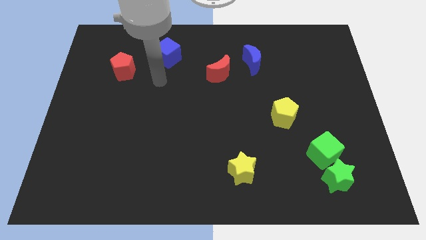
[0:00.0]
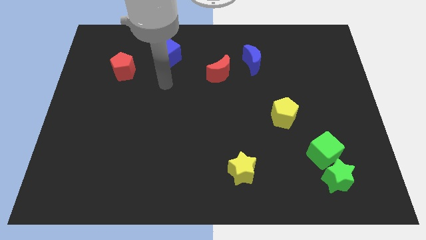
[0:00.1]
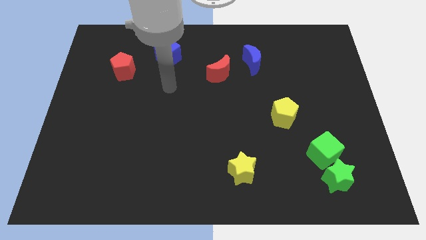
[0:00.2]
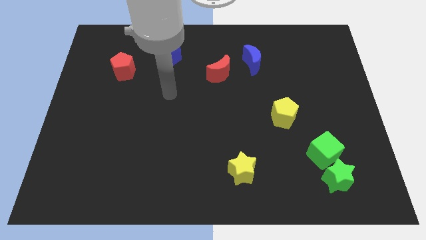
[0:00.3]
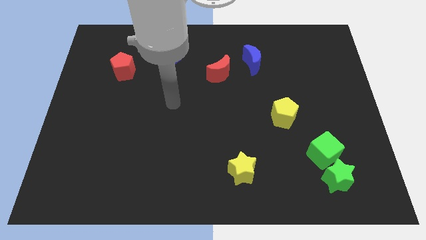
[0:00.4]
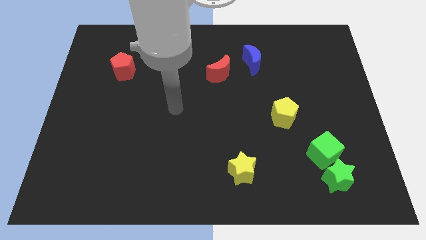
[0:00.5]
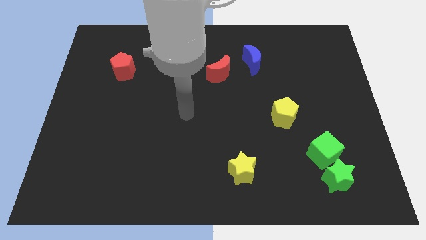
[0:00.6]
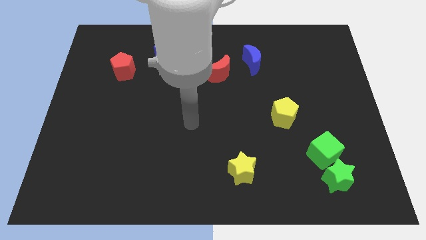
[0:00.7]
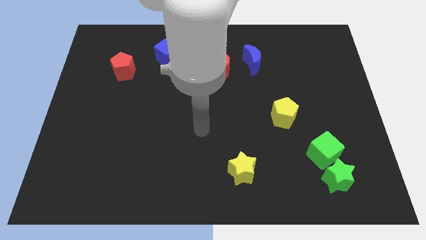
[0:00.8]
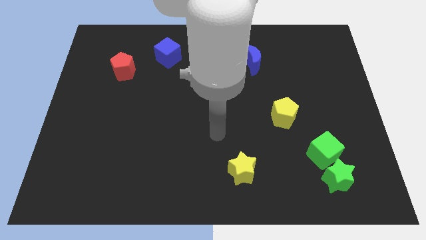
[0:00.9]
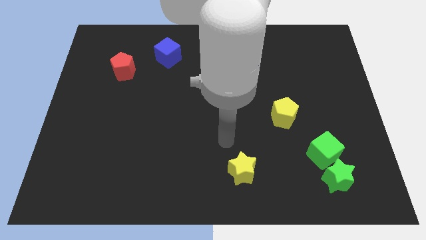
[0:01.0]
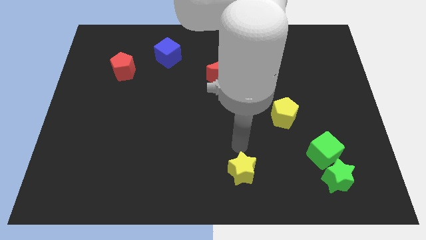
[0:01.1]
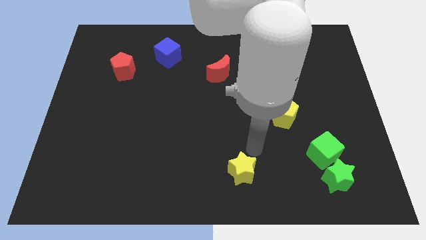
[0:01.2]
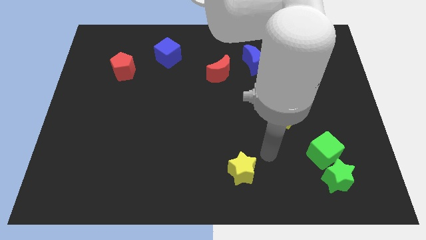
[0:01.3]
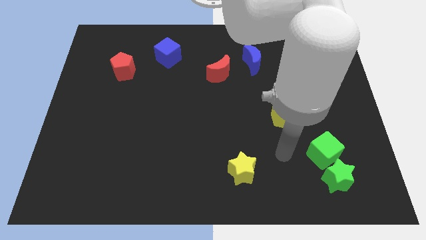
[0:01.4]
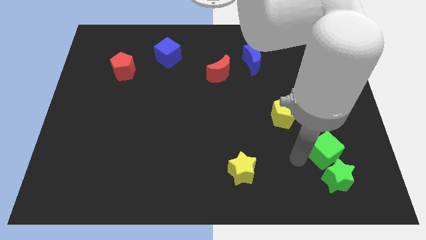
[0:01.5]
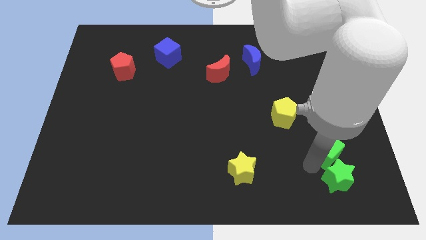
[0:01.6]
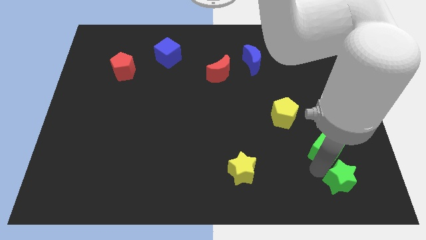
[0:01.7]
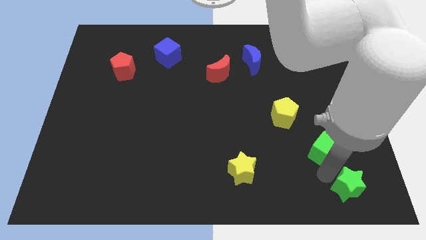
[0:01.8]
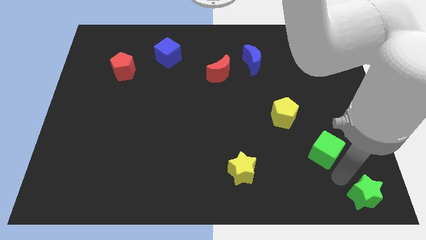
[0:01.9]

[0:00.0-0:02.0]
separate the green cube from the green star

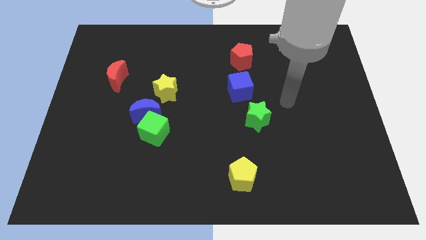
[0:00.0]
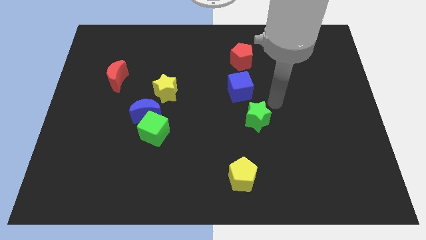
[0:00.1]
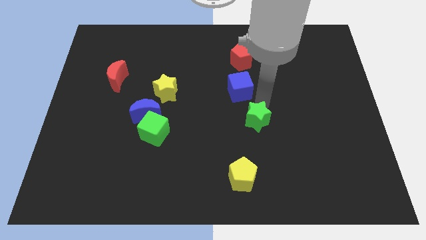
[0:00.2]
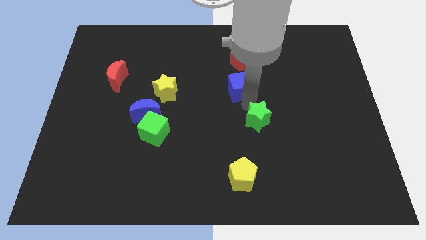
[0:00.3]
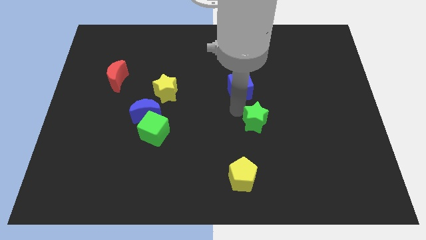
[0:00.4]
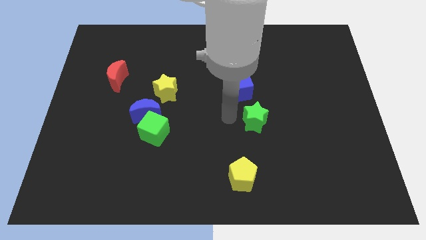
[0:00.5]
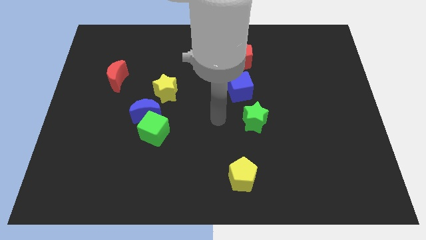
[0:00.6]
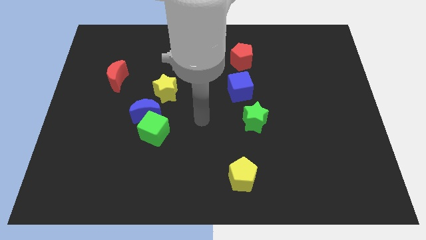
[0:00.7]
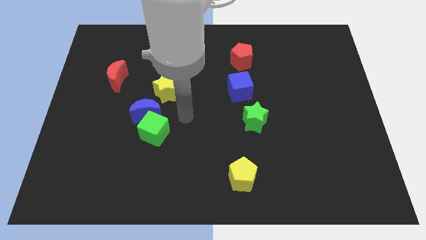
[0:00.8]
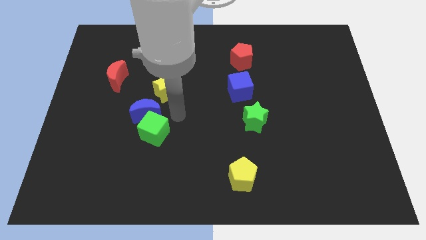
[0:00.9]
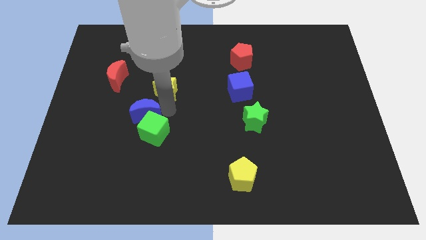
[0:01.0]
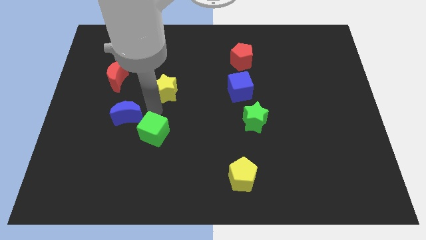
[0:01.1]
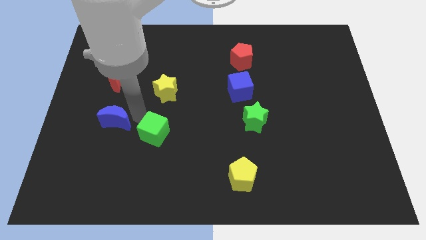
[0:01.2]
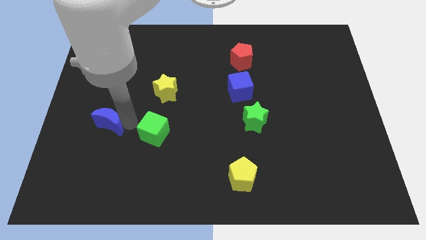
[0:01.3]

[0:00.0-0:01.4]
separate the green cube from the blue moon

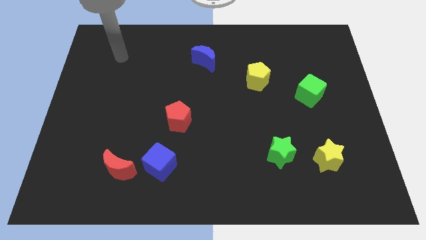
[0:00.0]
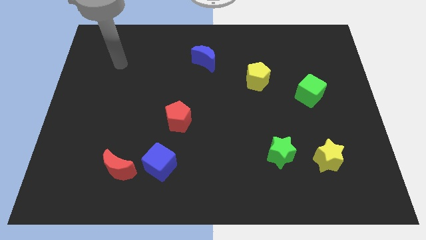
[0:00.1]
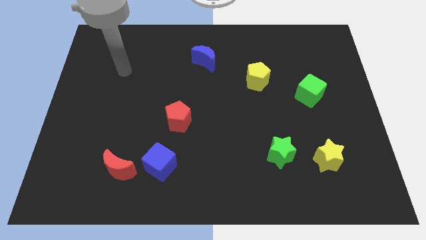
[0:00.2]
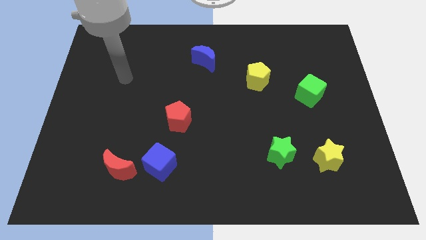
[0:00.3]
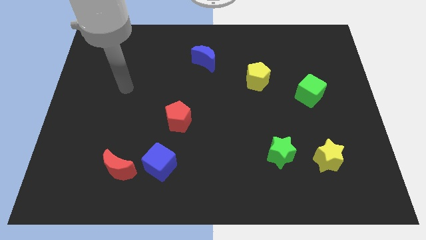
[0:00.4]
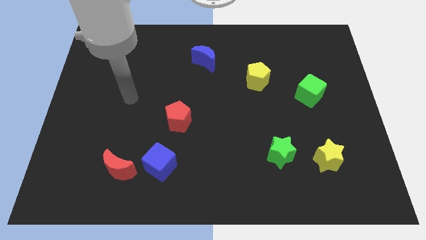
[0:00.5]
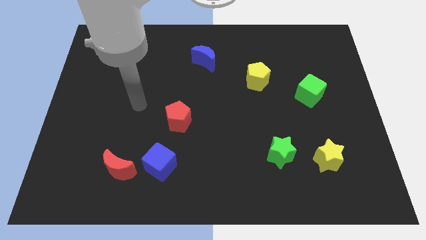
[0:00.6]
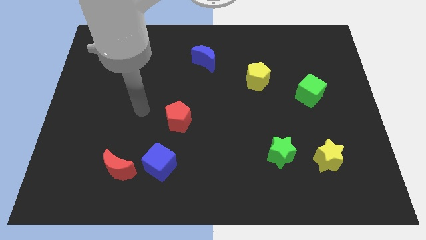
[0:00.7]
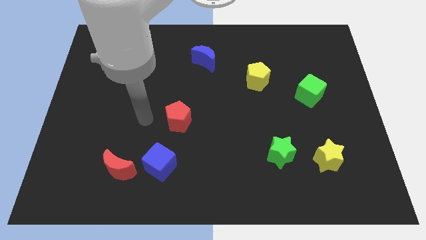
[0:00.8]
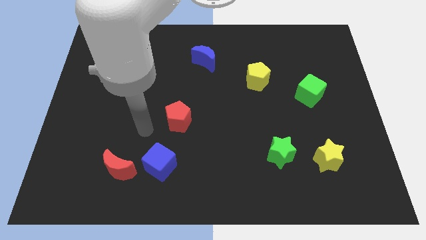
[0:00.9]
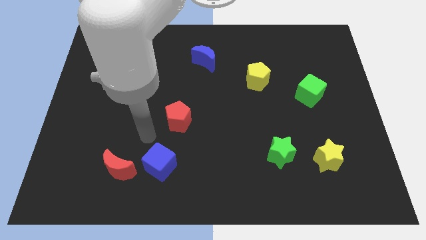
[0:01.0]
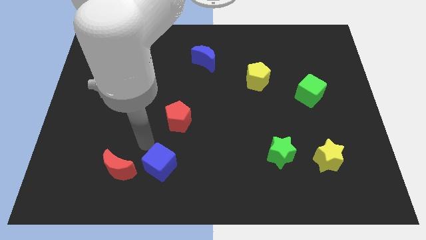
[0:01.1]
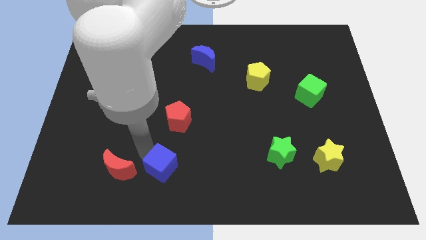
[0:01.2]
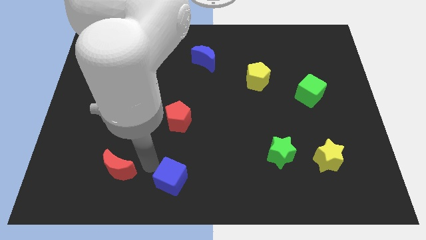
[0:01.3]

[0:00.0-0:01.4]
separate the red moon from the blue cube

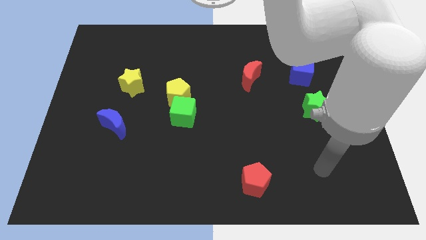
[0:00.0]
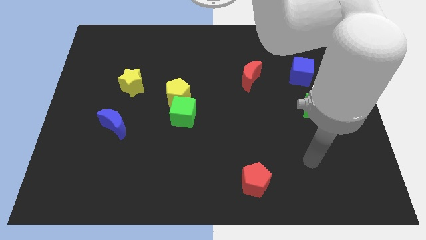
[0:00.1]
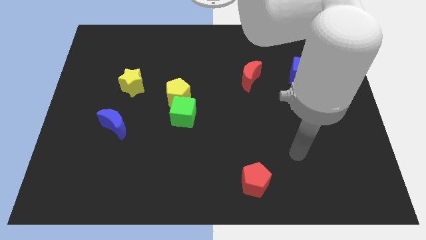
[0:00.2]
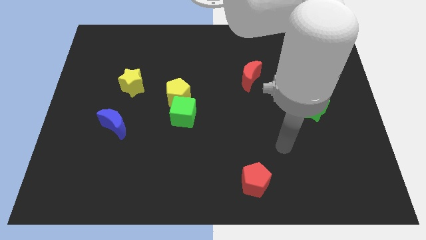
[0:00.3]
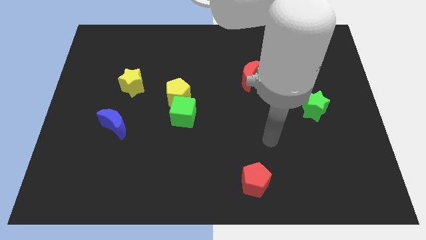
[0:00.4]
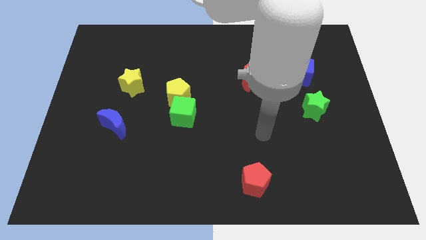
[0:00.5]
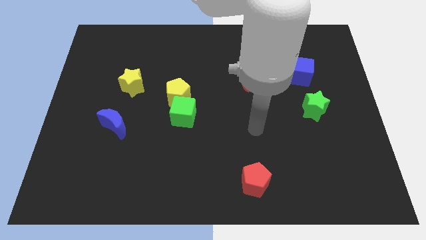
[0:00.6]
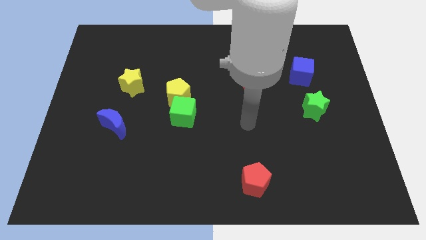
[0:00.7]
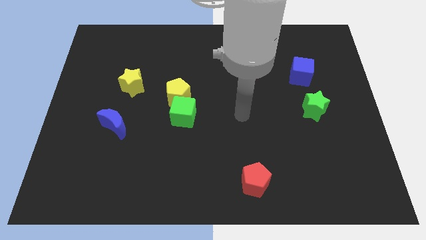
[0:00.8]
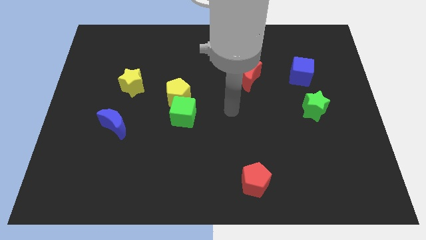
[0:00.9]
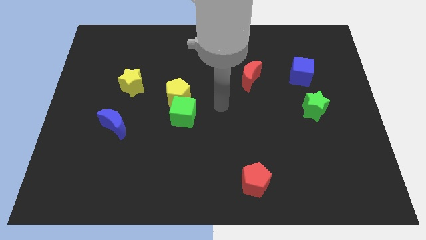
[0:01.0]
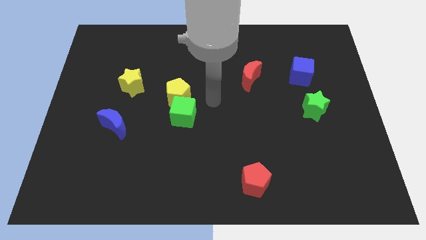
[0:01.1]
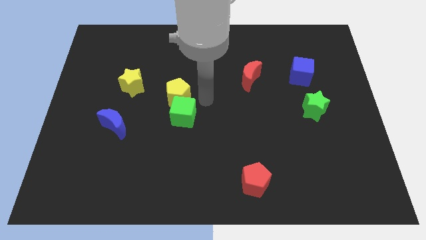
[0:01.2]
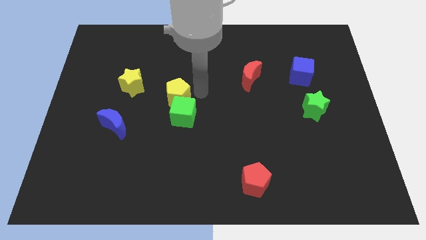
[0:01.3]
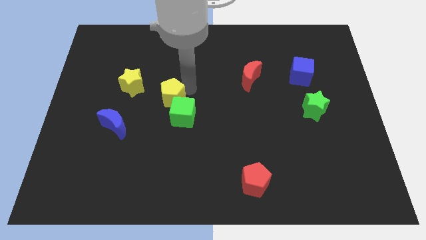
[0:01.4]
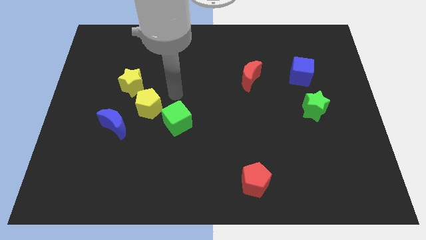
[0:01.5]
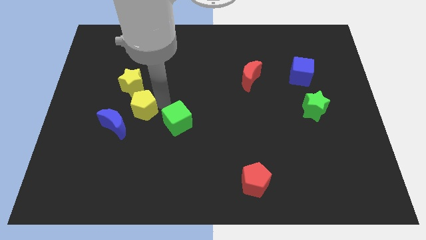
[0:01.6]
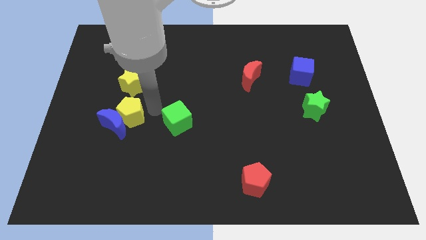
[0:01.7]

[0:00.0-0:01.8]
move the green cube away from the yellow pentagon

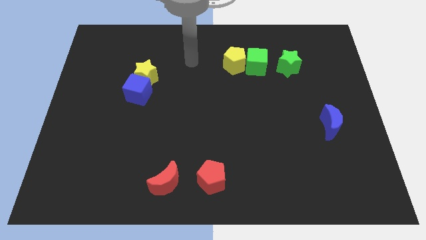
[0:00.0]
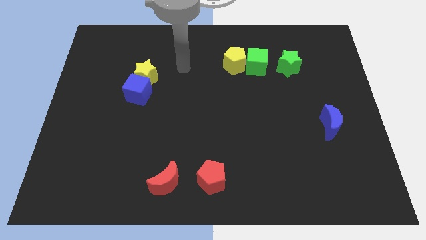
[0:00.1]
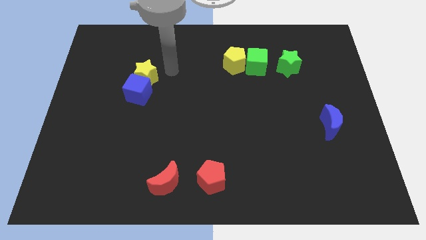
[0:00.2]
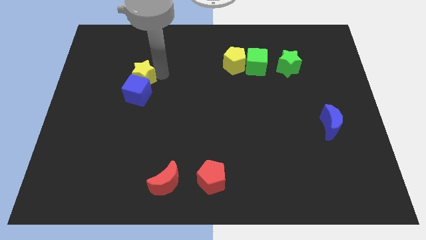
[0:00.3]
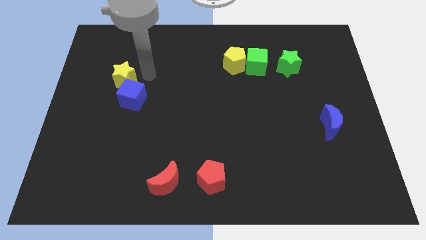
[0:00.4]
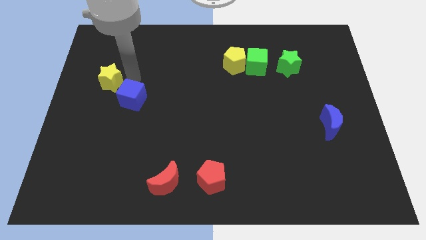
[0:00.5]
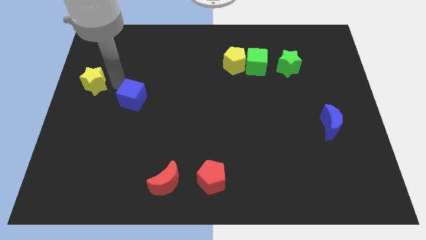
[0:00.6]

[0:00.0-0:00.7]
separate the blue cube from the yellow star

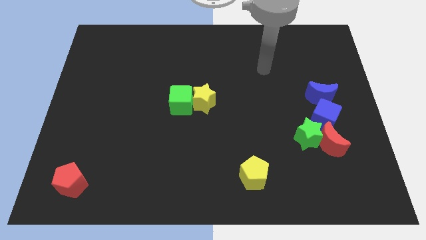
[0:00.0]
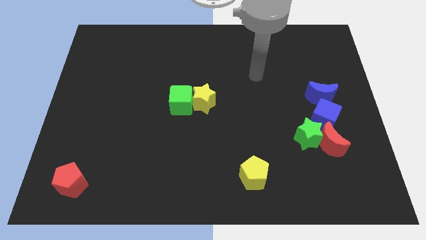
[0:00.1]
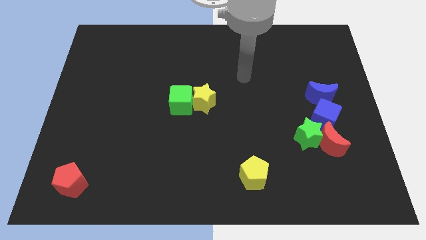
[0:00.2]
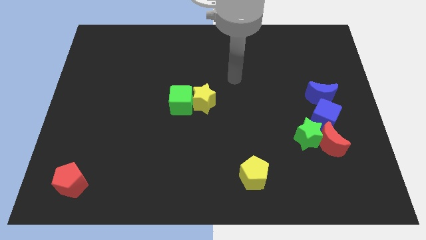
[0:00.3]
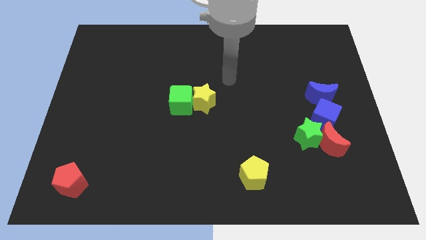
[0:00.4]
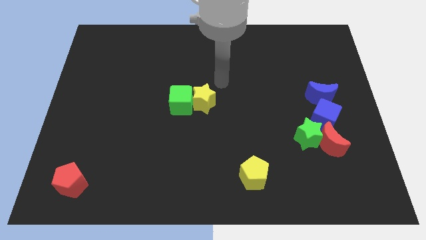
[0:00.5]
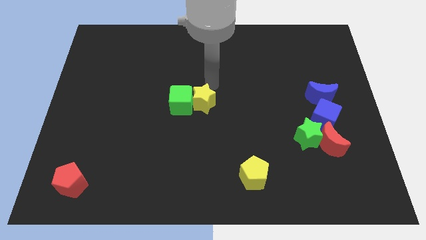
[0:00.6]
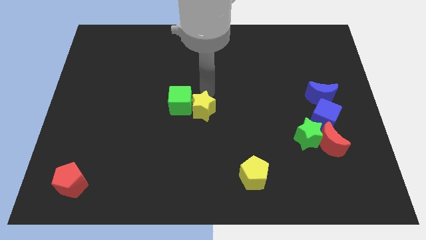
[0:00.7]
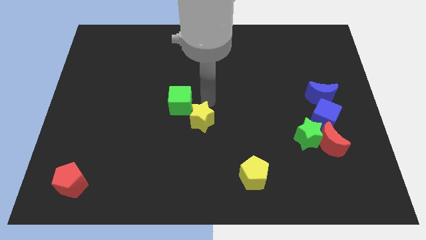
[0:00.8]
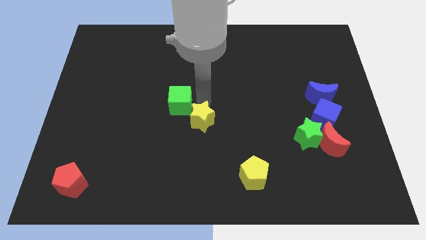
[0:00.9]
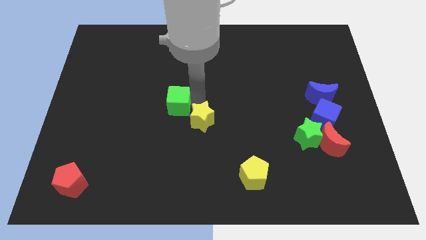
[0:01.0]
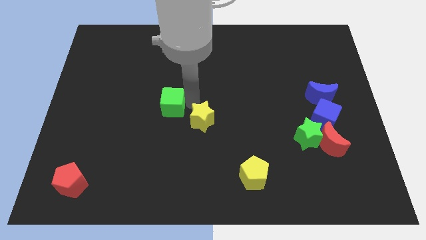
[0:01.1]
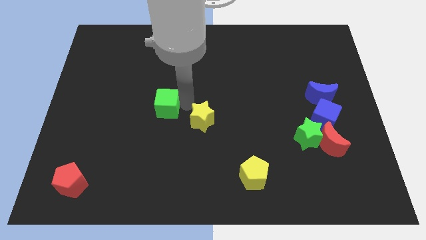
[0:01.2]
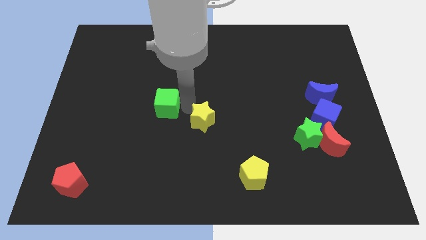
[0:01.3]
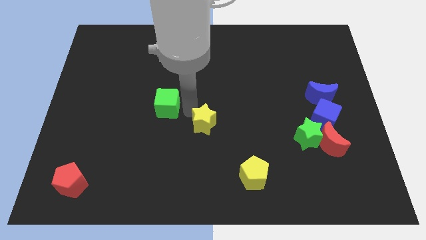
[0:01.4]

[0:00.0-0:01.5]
pull the green cube apart from the yellow star

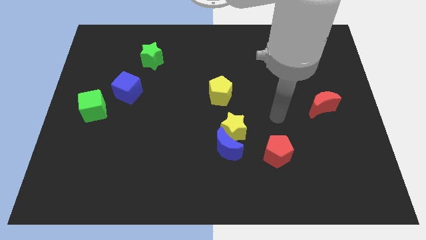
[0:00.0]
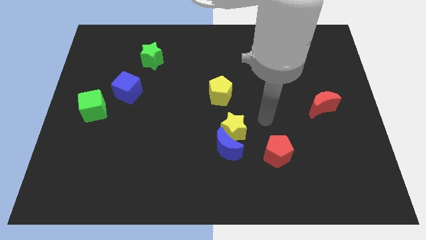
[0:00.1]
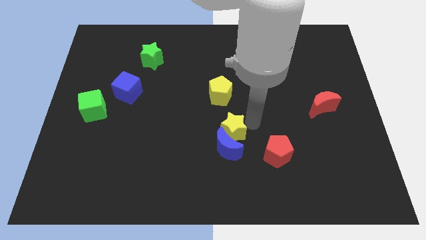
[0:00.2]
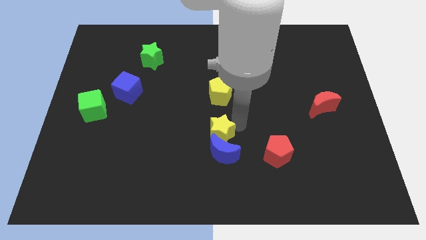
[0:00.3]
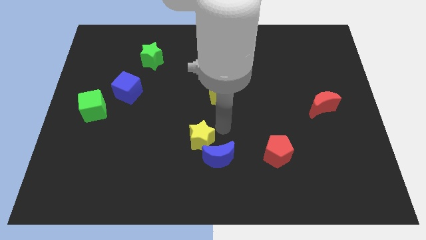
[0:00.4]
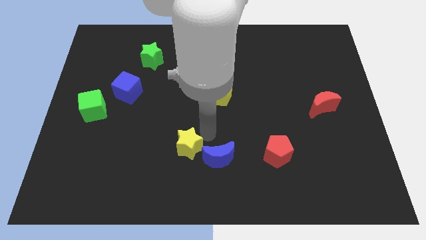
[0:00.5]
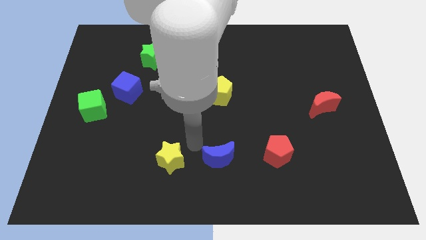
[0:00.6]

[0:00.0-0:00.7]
separate the blue moon from the yellow star
